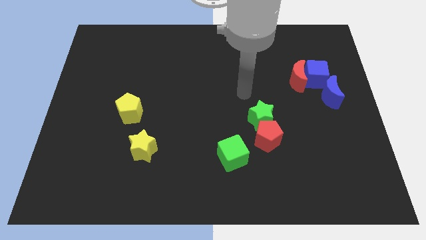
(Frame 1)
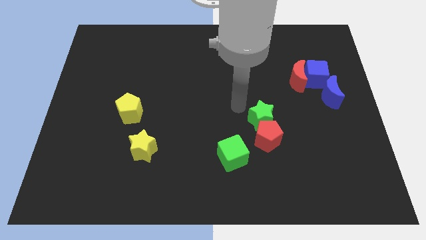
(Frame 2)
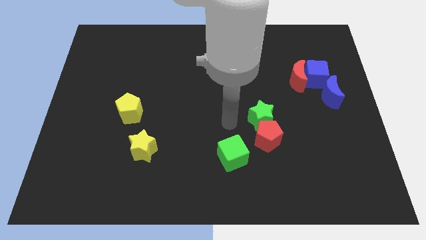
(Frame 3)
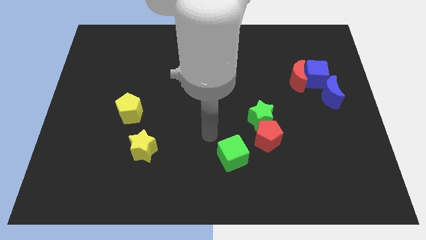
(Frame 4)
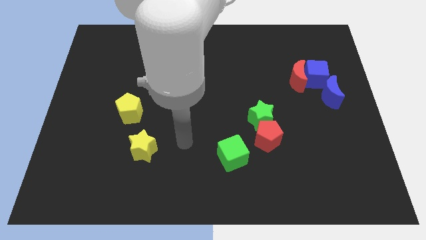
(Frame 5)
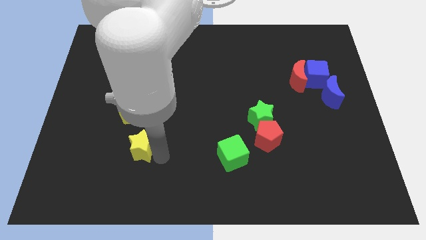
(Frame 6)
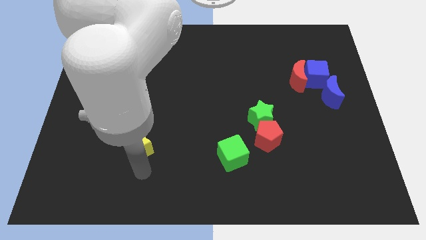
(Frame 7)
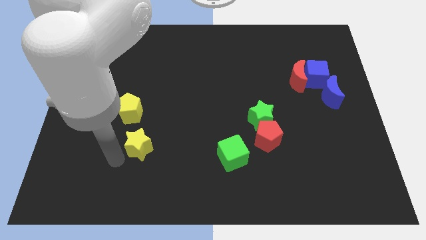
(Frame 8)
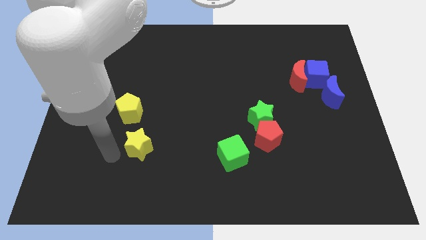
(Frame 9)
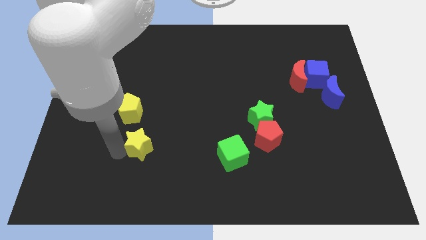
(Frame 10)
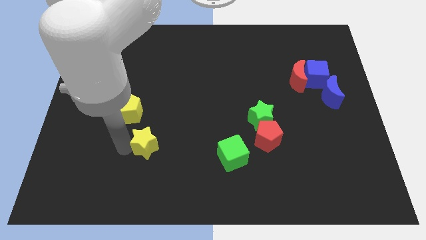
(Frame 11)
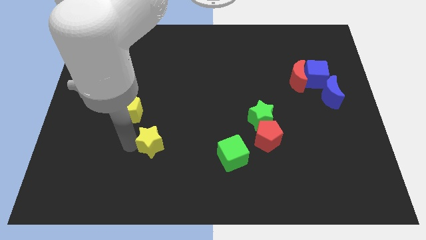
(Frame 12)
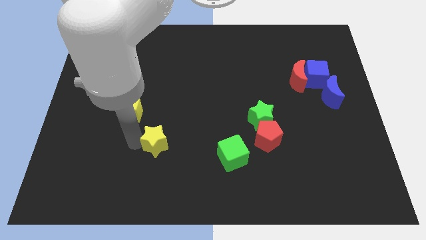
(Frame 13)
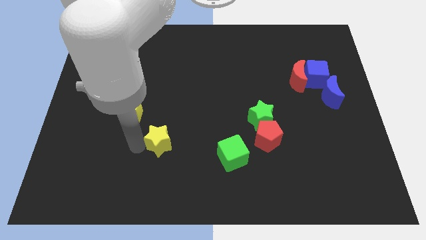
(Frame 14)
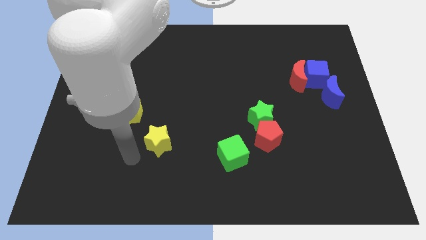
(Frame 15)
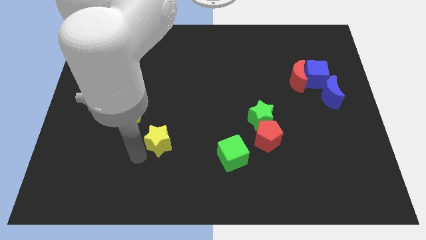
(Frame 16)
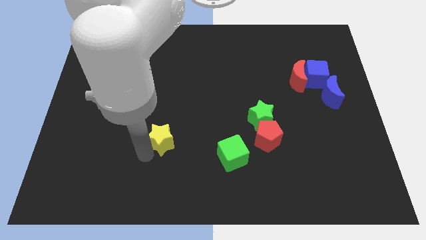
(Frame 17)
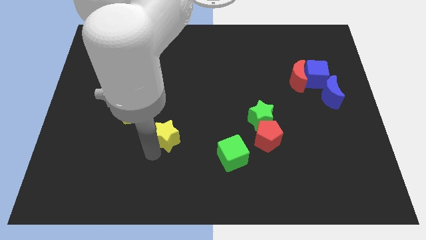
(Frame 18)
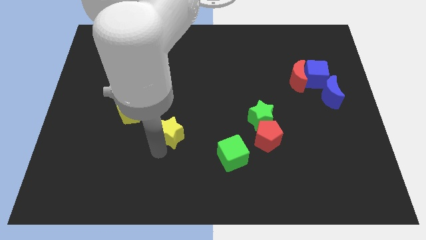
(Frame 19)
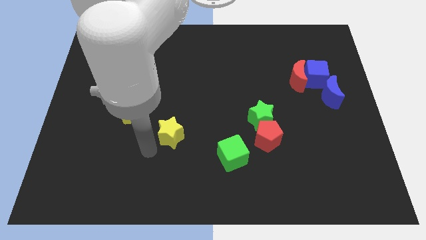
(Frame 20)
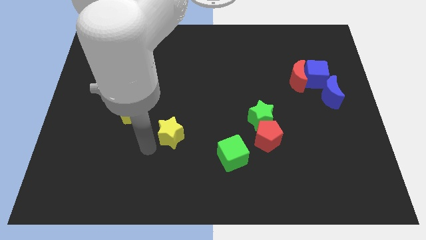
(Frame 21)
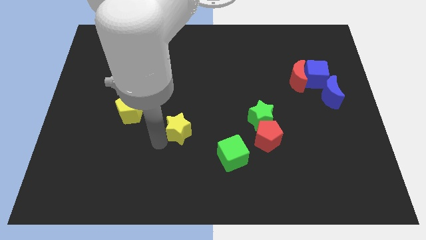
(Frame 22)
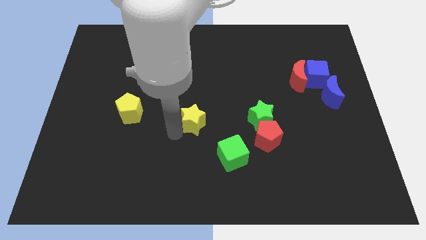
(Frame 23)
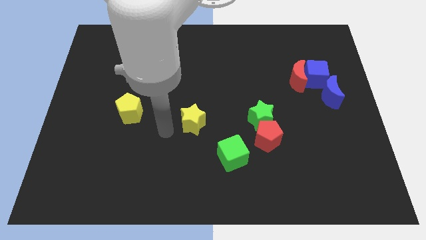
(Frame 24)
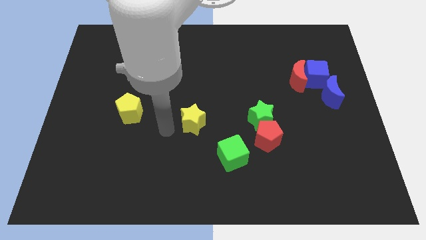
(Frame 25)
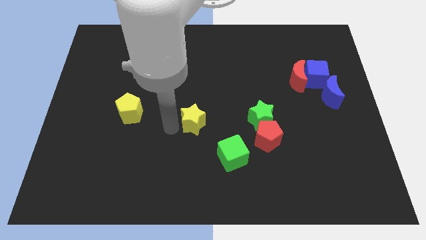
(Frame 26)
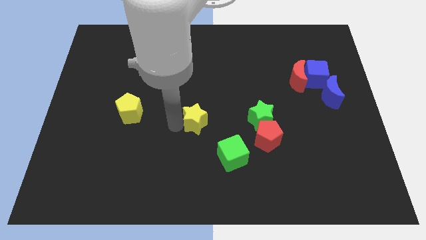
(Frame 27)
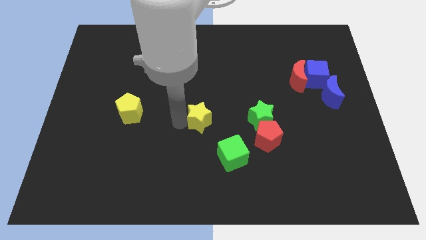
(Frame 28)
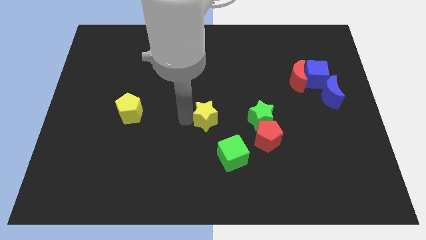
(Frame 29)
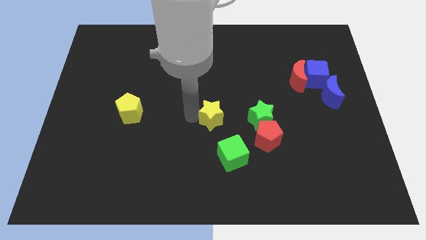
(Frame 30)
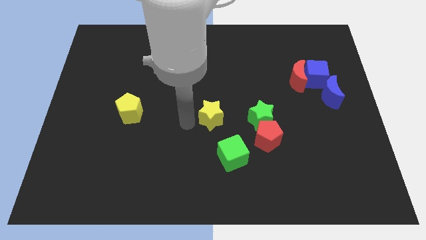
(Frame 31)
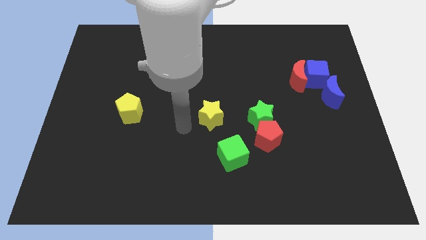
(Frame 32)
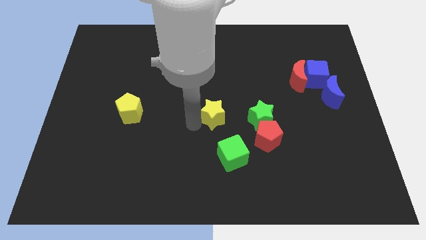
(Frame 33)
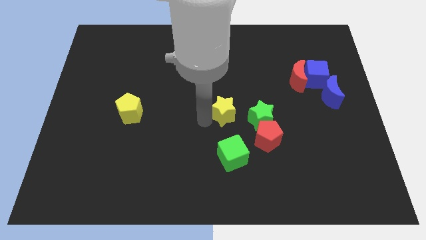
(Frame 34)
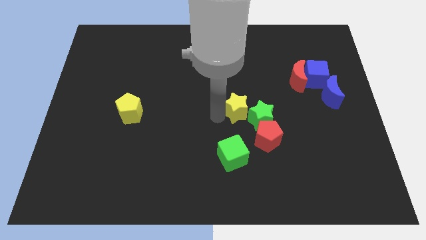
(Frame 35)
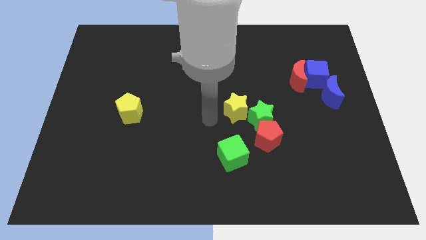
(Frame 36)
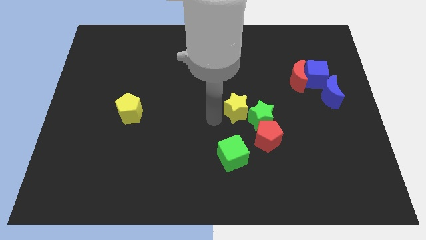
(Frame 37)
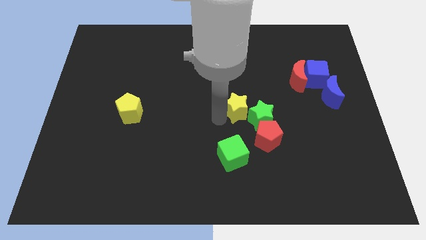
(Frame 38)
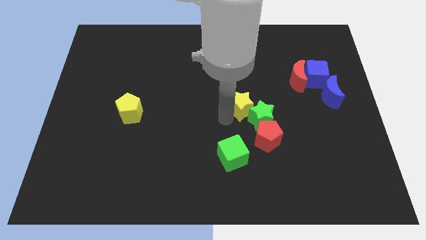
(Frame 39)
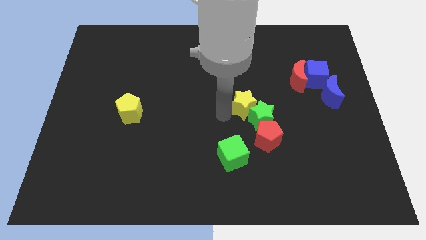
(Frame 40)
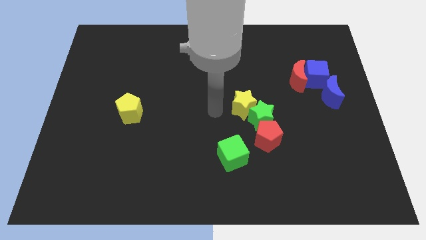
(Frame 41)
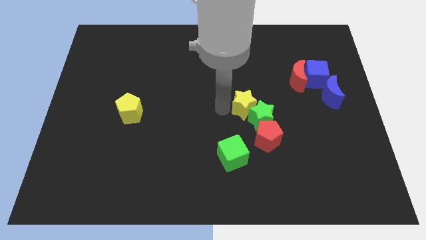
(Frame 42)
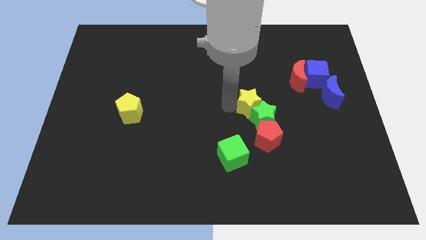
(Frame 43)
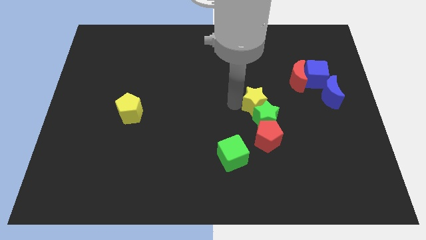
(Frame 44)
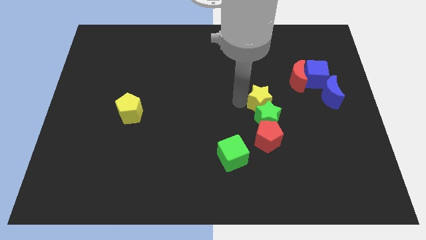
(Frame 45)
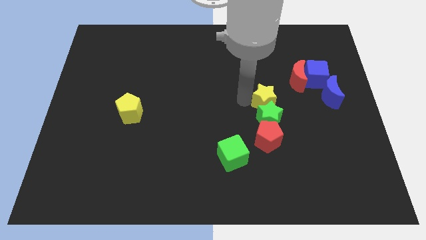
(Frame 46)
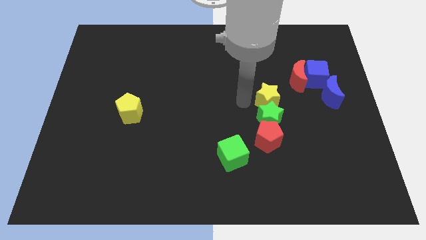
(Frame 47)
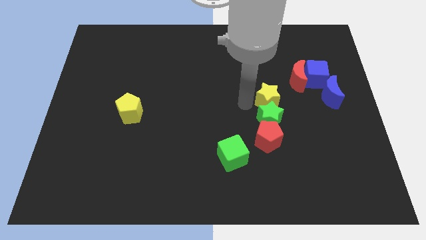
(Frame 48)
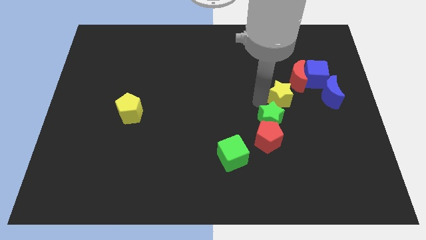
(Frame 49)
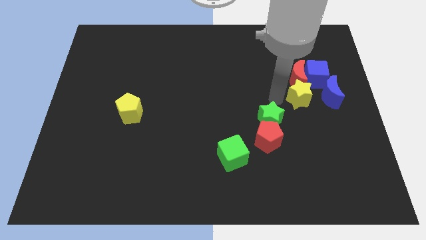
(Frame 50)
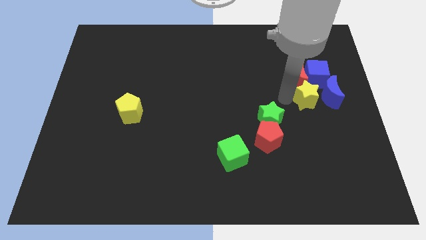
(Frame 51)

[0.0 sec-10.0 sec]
move the yellow star close to the blue moon

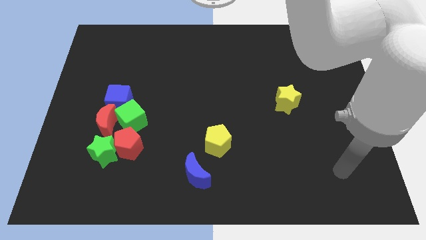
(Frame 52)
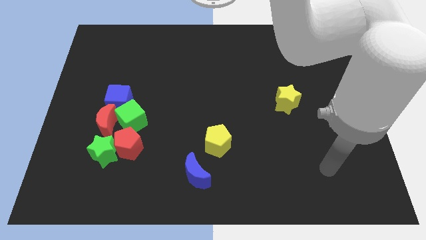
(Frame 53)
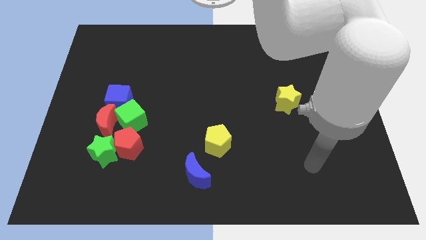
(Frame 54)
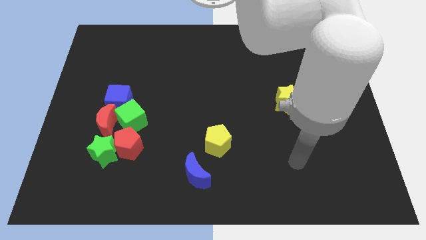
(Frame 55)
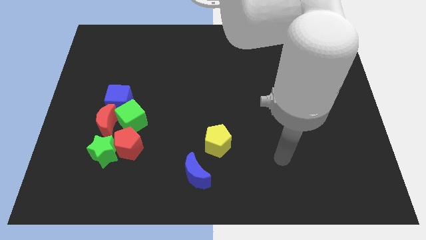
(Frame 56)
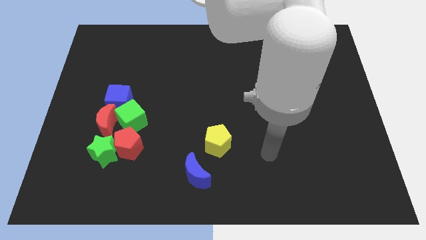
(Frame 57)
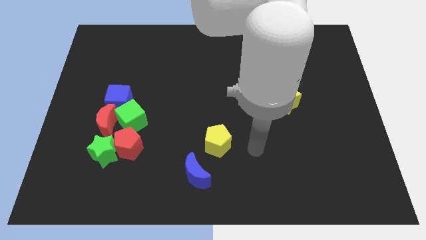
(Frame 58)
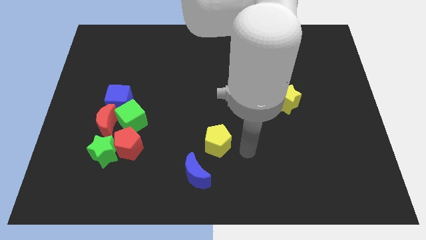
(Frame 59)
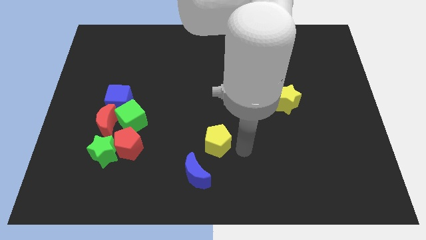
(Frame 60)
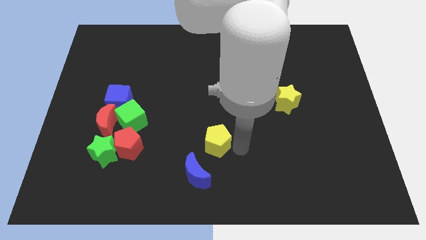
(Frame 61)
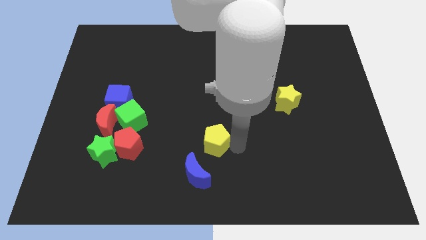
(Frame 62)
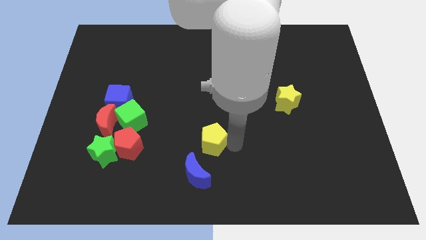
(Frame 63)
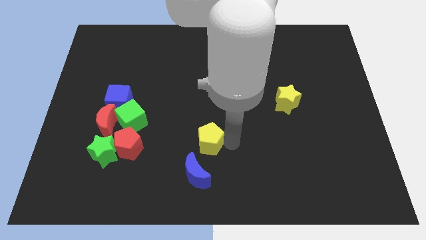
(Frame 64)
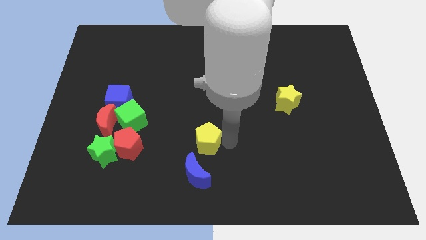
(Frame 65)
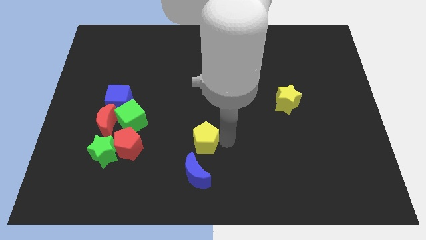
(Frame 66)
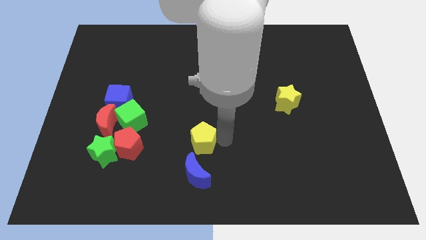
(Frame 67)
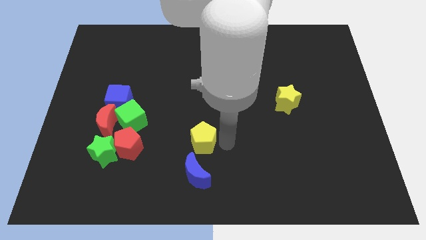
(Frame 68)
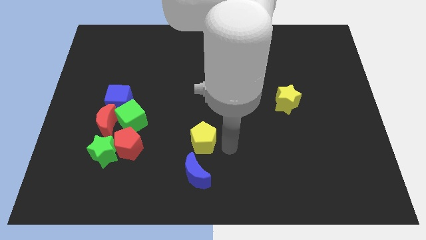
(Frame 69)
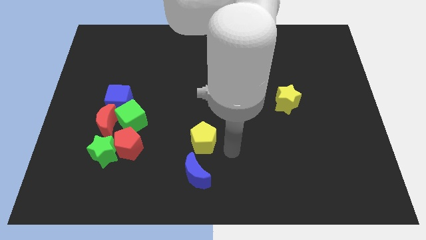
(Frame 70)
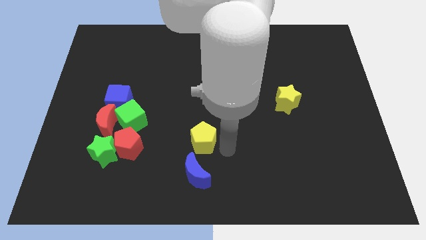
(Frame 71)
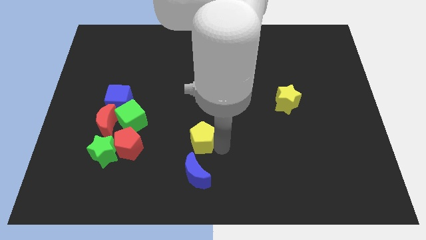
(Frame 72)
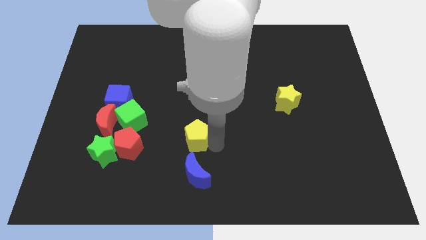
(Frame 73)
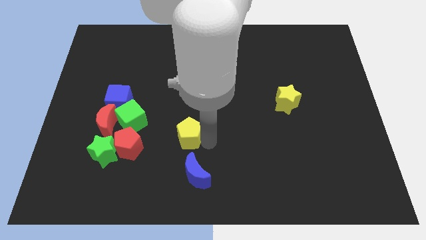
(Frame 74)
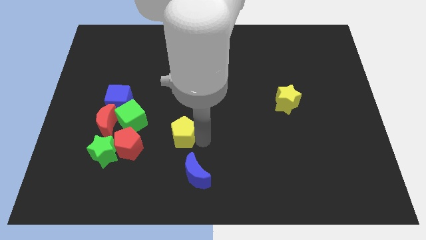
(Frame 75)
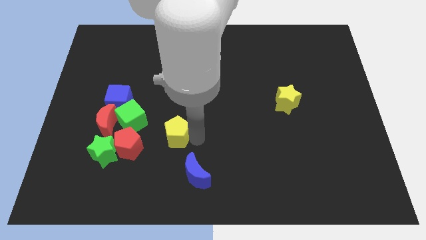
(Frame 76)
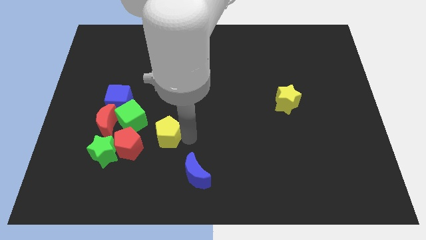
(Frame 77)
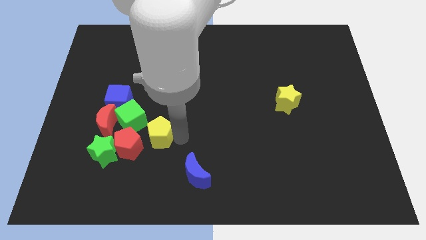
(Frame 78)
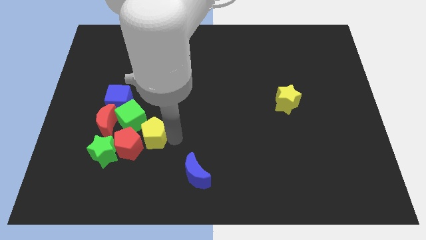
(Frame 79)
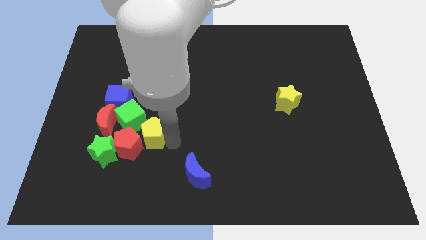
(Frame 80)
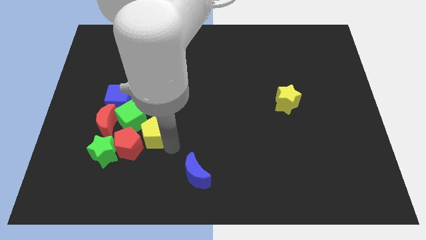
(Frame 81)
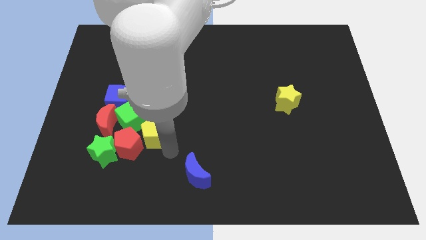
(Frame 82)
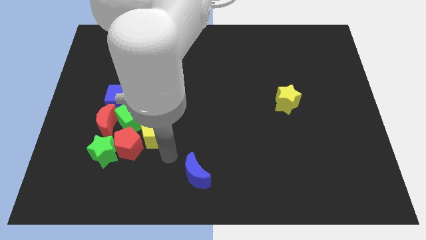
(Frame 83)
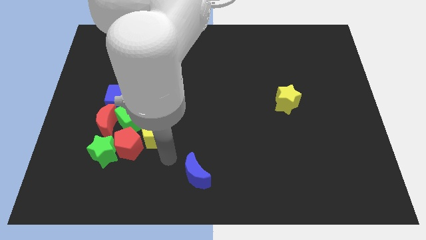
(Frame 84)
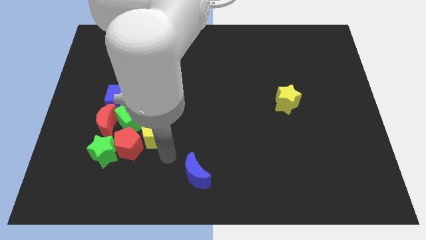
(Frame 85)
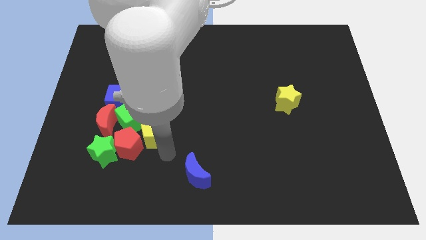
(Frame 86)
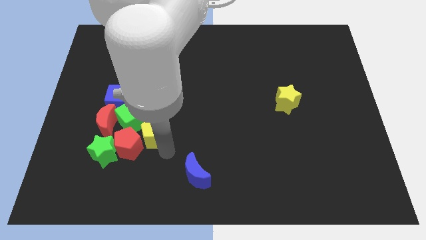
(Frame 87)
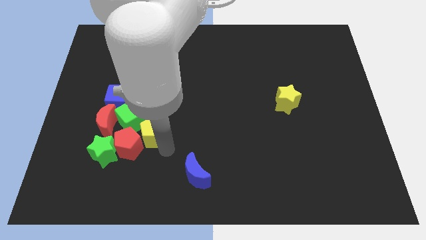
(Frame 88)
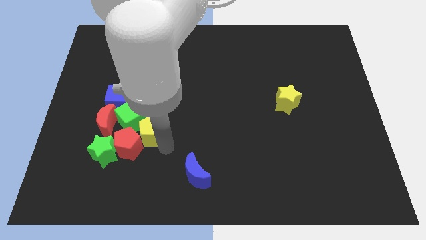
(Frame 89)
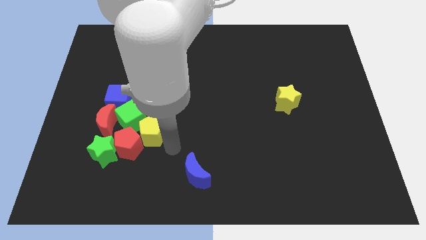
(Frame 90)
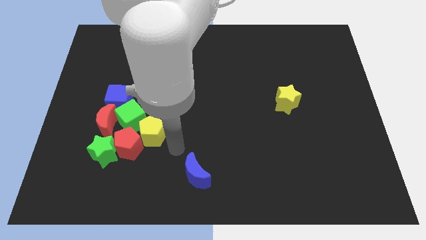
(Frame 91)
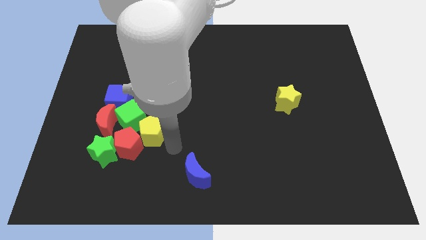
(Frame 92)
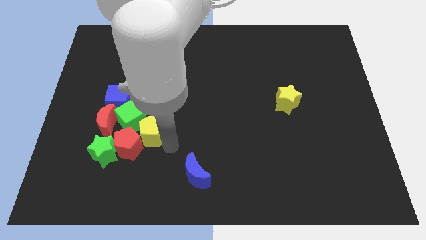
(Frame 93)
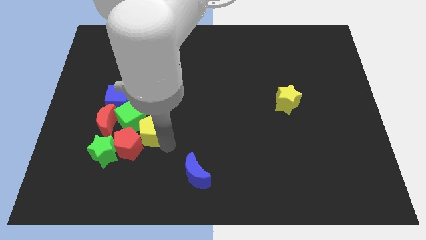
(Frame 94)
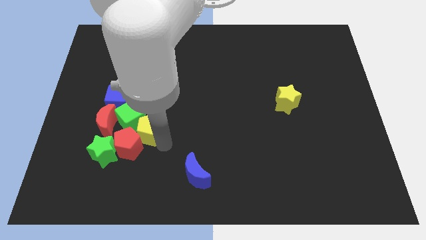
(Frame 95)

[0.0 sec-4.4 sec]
move the yellow pentagon towards the green cube
